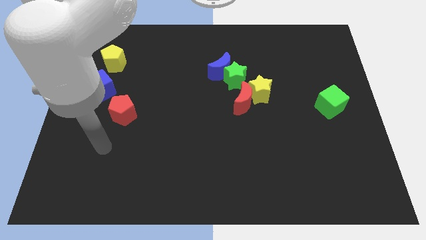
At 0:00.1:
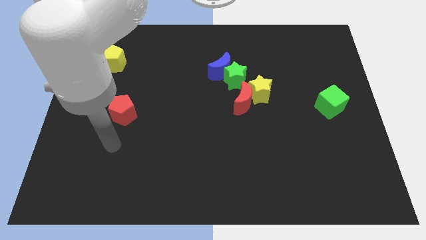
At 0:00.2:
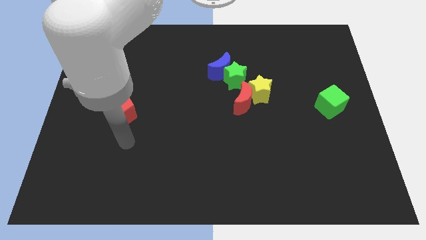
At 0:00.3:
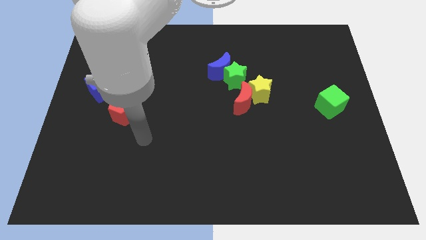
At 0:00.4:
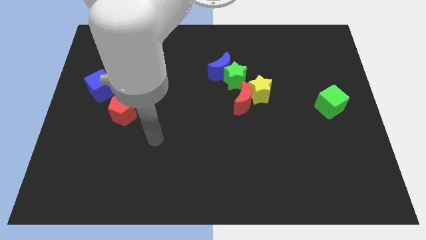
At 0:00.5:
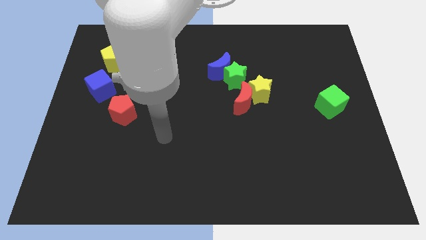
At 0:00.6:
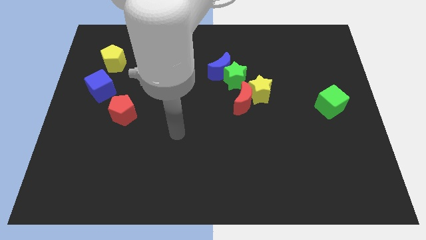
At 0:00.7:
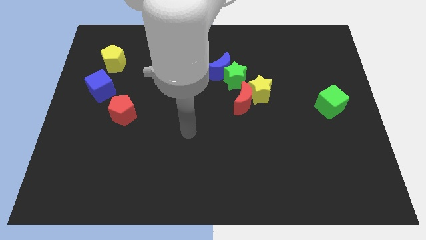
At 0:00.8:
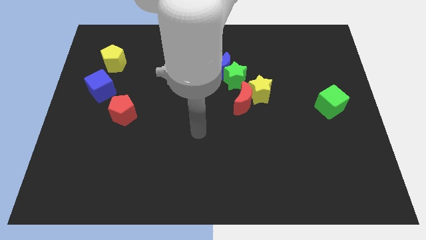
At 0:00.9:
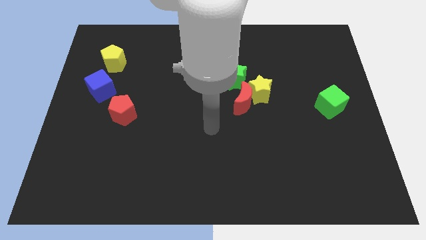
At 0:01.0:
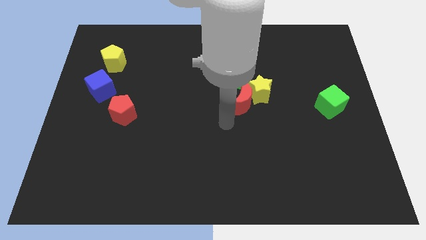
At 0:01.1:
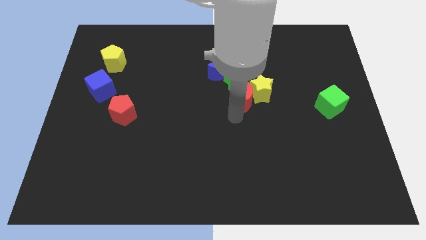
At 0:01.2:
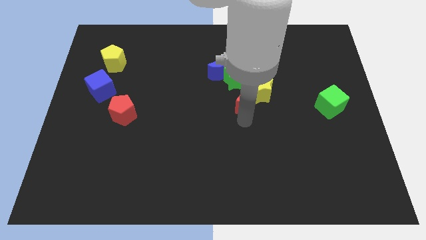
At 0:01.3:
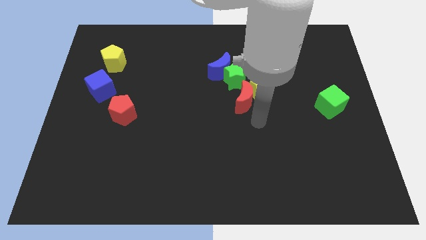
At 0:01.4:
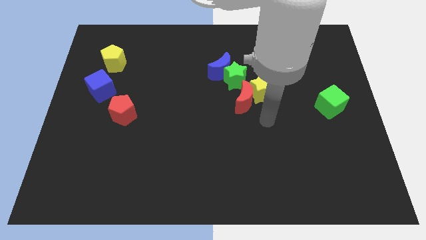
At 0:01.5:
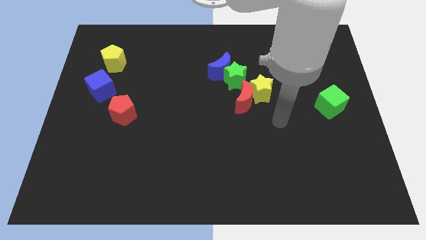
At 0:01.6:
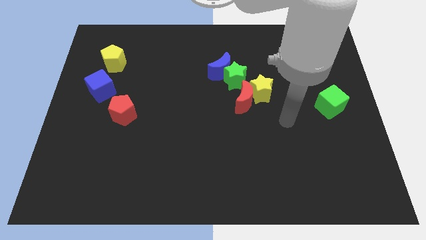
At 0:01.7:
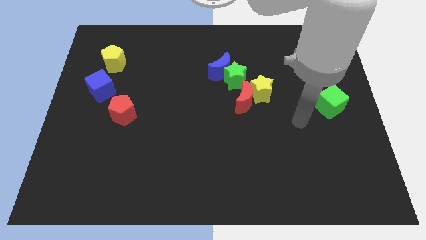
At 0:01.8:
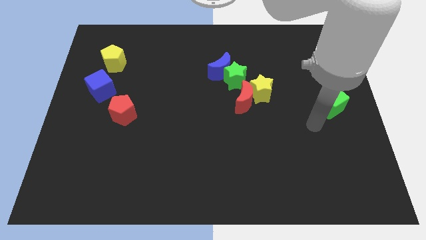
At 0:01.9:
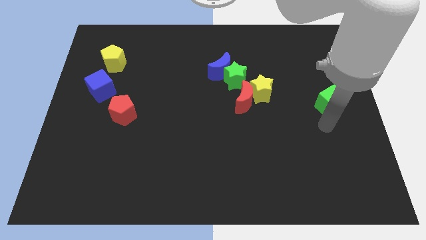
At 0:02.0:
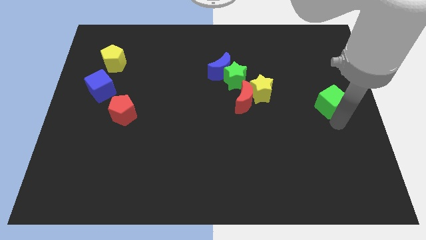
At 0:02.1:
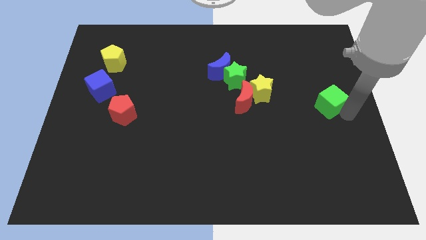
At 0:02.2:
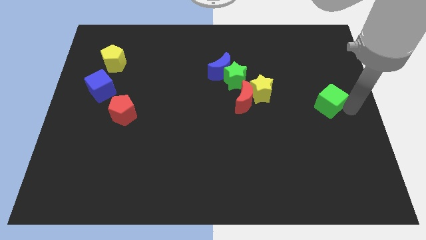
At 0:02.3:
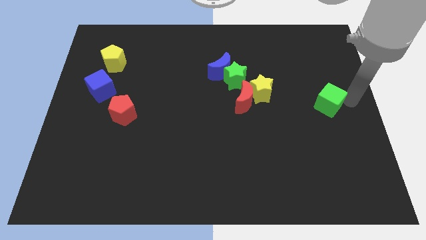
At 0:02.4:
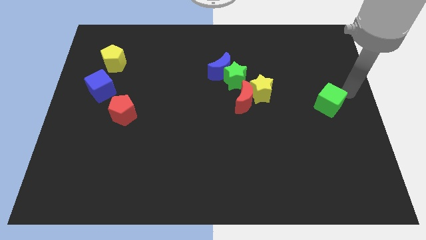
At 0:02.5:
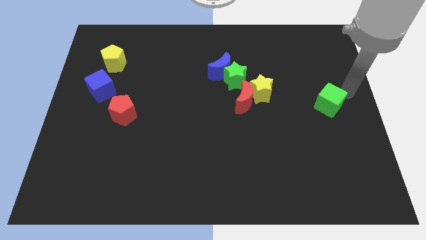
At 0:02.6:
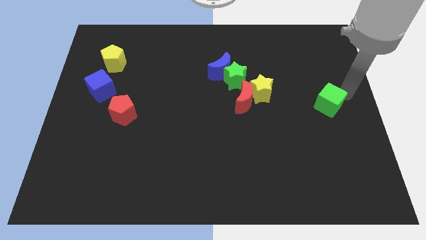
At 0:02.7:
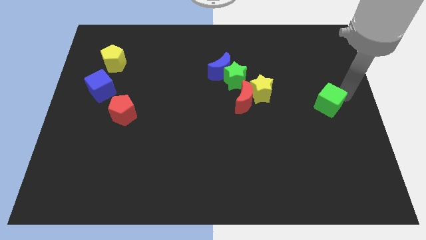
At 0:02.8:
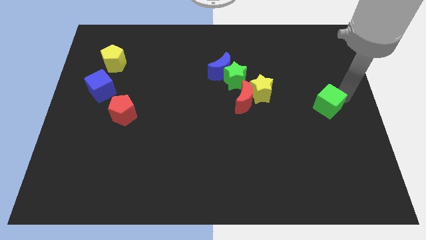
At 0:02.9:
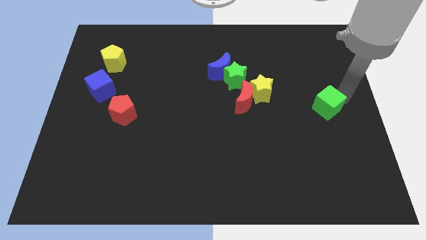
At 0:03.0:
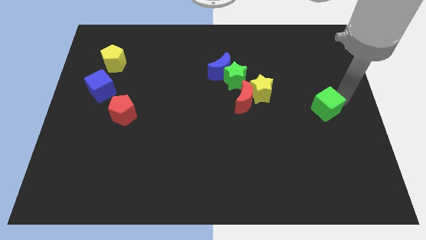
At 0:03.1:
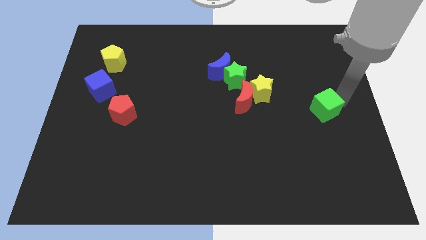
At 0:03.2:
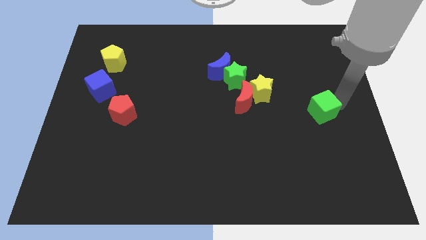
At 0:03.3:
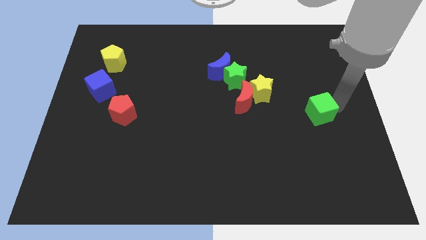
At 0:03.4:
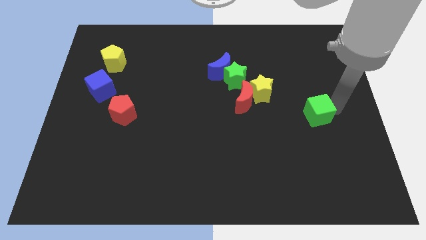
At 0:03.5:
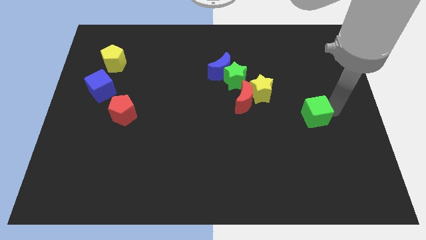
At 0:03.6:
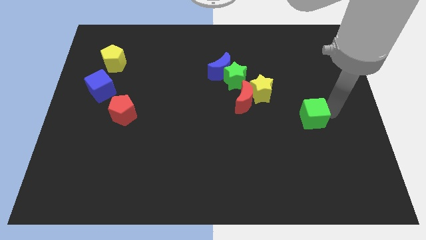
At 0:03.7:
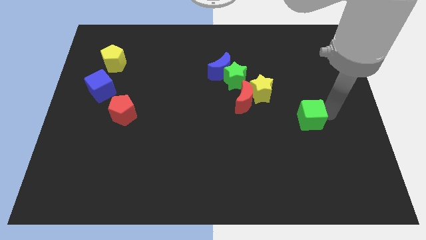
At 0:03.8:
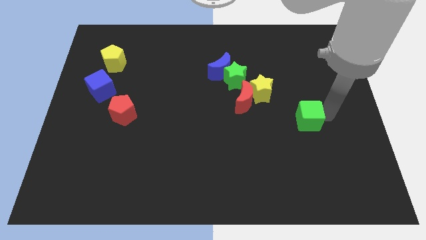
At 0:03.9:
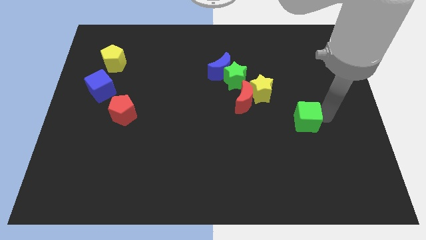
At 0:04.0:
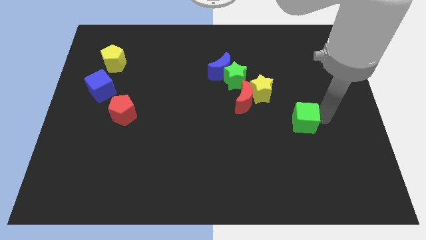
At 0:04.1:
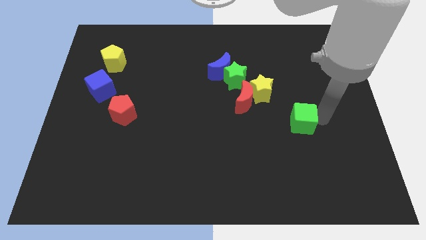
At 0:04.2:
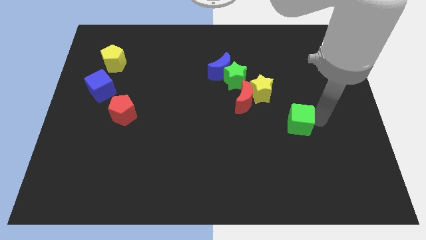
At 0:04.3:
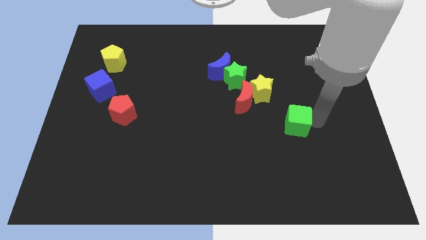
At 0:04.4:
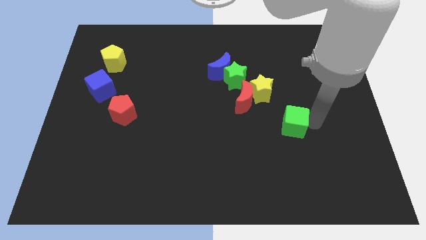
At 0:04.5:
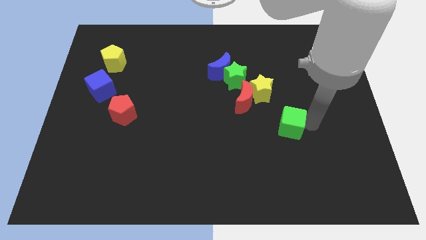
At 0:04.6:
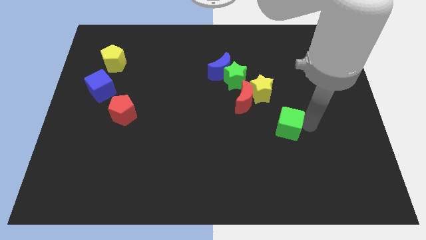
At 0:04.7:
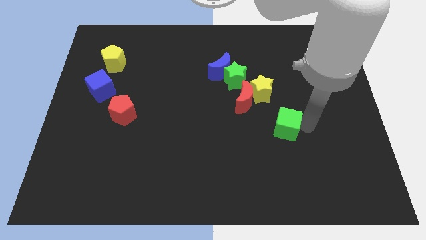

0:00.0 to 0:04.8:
push the green cube below the yellow star

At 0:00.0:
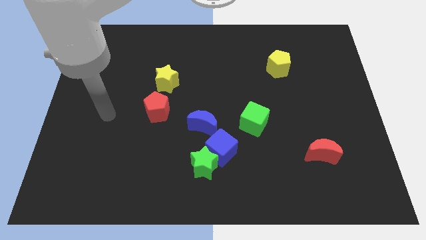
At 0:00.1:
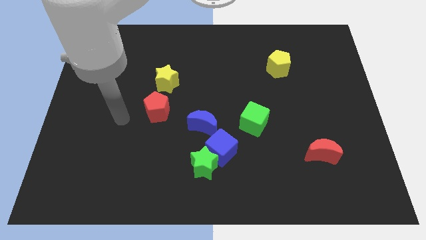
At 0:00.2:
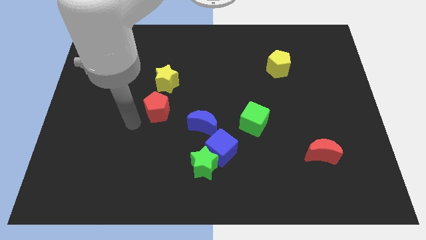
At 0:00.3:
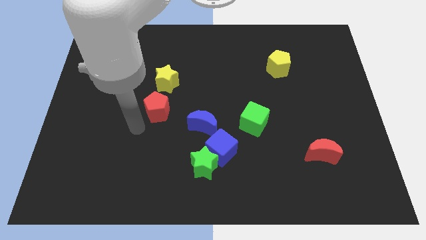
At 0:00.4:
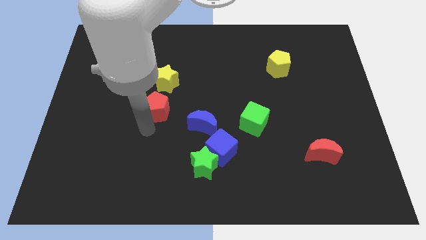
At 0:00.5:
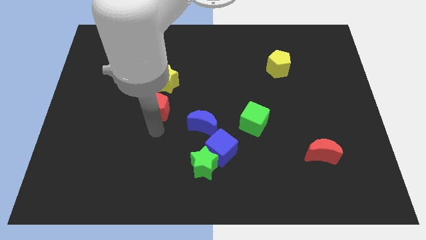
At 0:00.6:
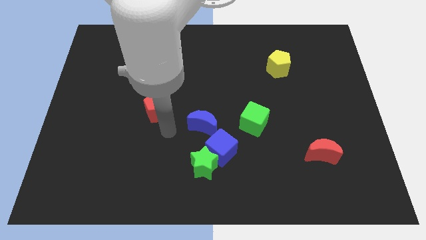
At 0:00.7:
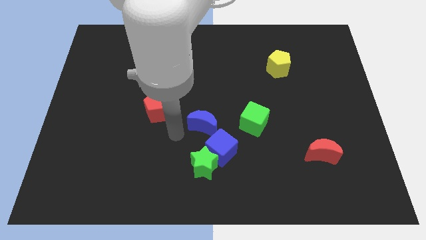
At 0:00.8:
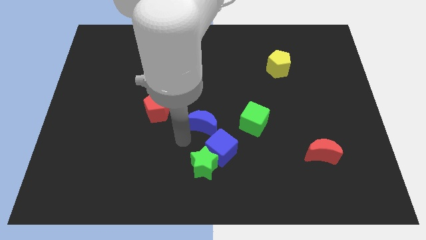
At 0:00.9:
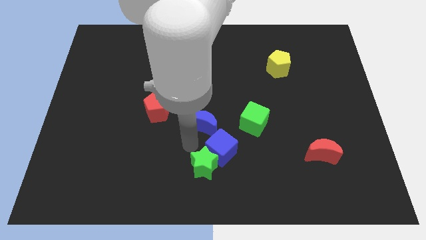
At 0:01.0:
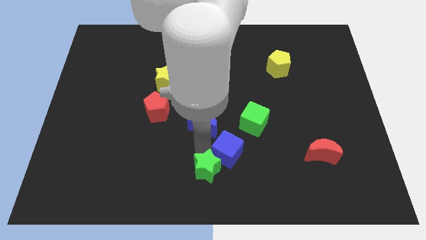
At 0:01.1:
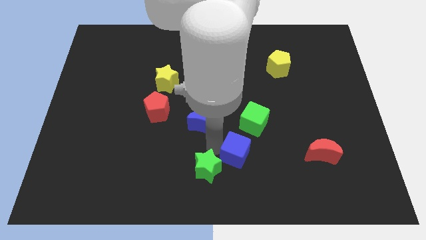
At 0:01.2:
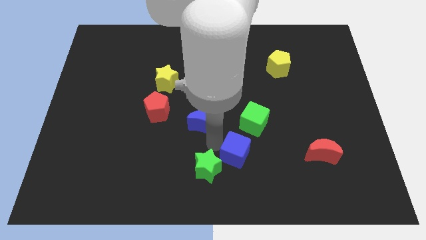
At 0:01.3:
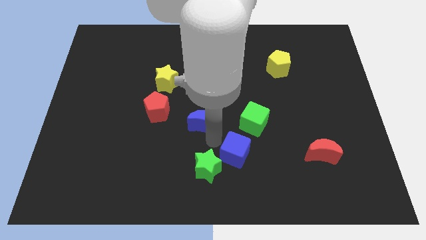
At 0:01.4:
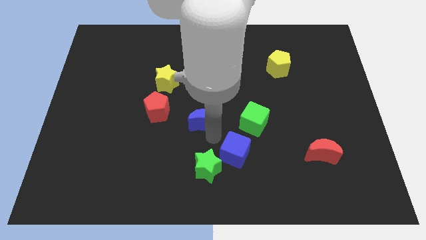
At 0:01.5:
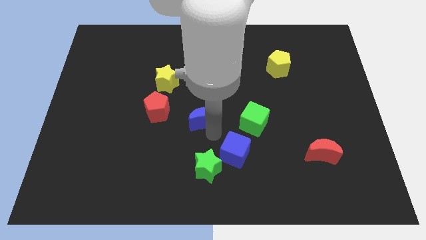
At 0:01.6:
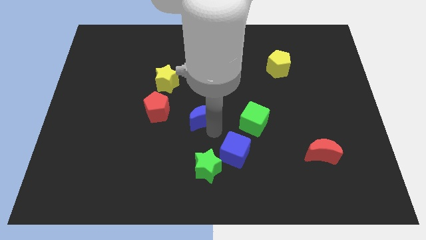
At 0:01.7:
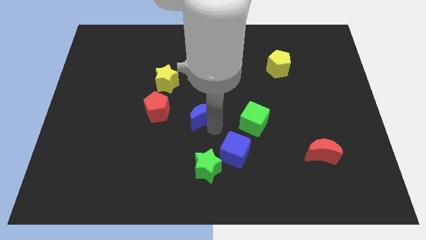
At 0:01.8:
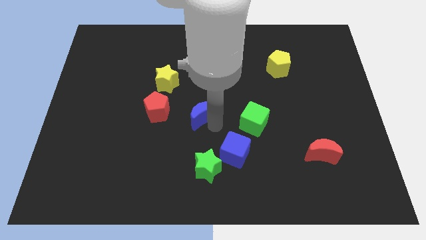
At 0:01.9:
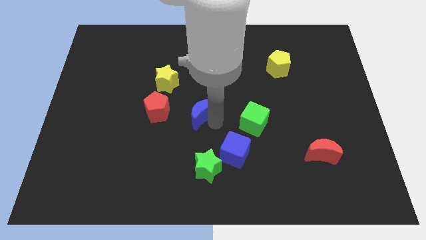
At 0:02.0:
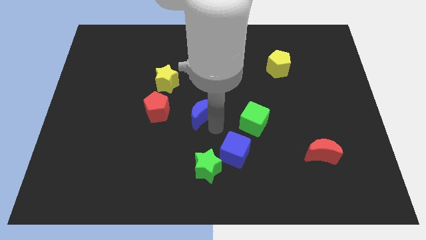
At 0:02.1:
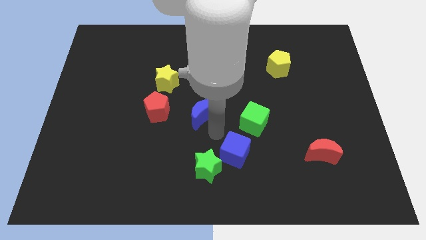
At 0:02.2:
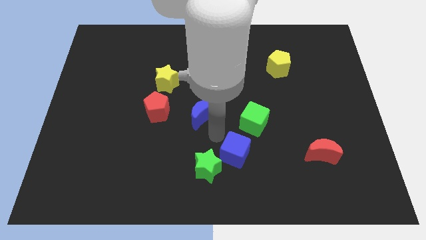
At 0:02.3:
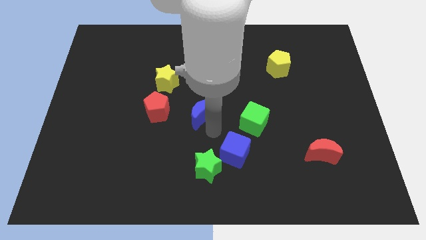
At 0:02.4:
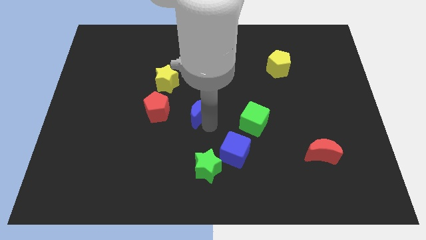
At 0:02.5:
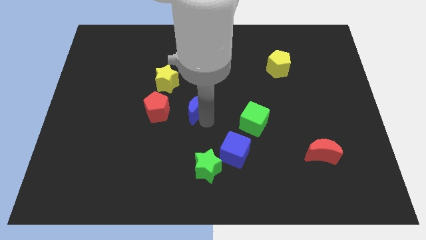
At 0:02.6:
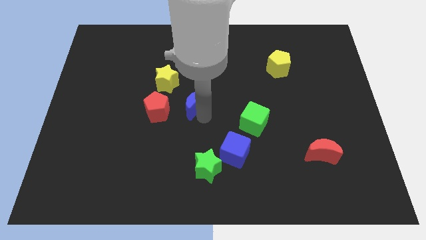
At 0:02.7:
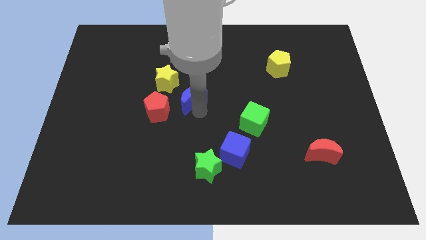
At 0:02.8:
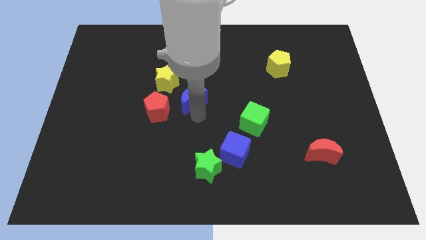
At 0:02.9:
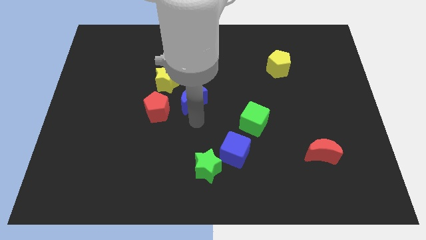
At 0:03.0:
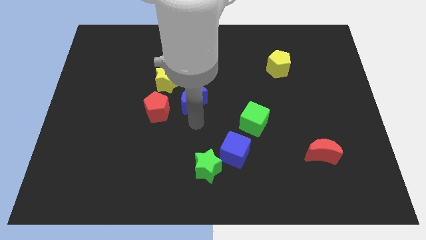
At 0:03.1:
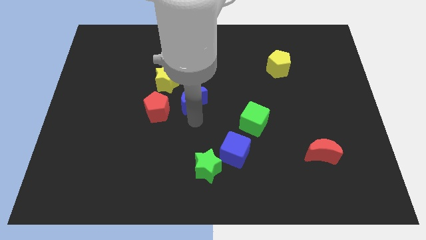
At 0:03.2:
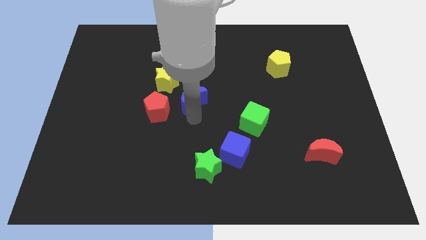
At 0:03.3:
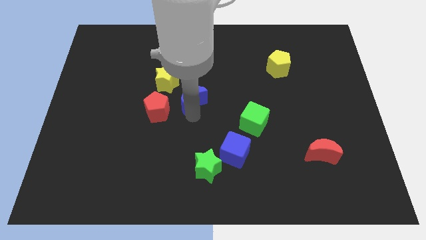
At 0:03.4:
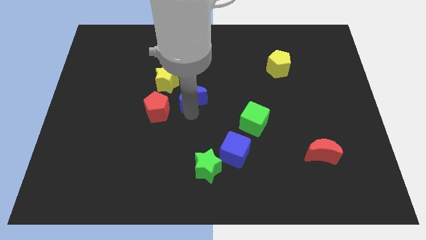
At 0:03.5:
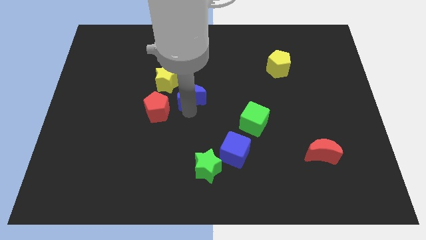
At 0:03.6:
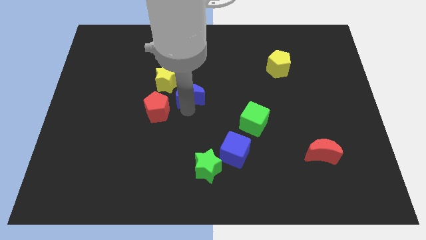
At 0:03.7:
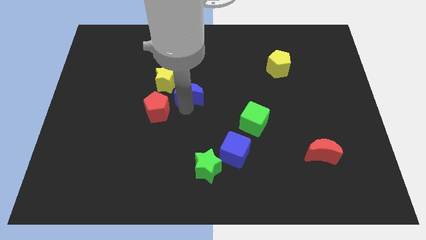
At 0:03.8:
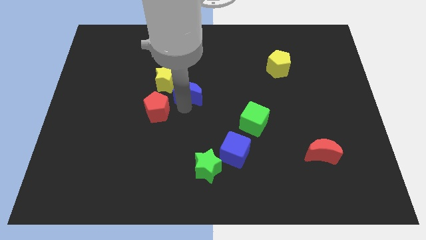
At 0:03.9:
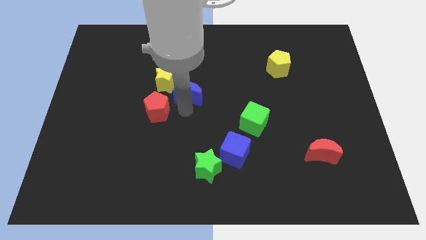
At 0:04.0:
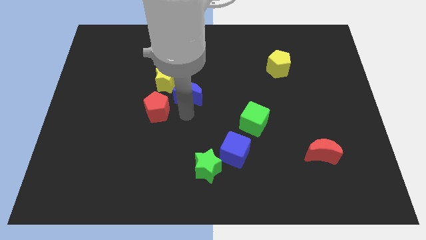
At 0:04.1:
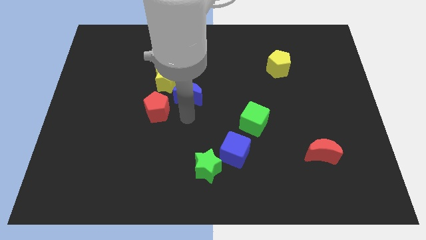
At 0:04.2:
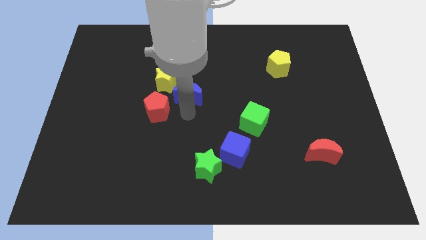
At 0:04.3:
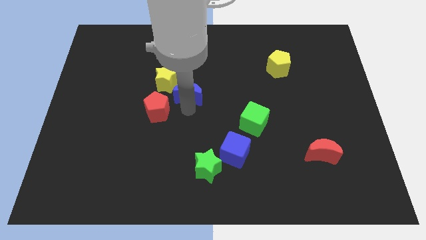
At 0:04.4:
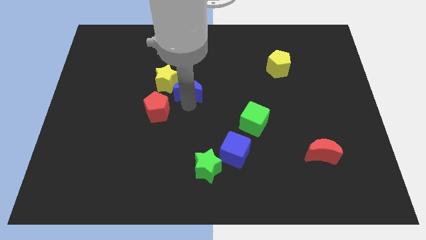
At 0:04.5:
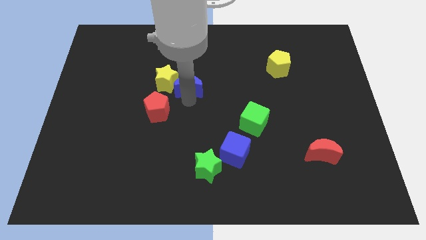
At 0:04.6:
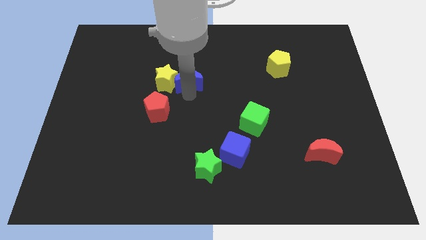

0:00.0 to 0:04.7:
push the blue moon diagonally up and to the right of the yellow star
